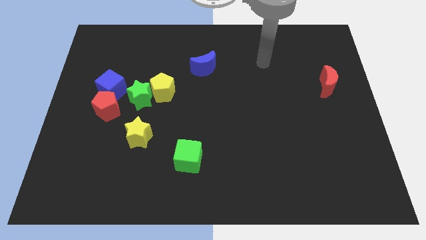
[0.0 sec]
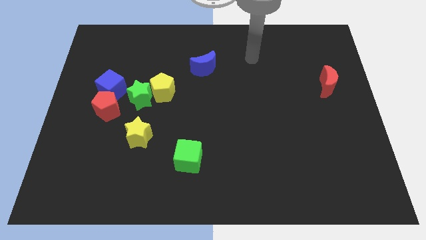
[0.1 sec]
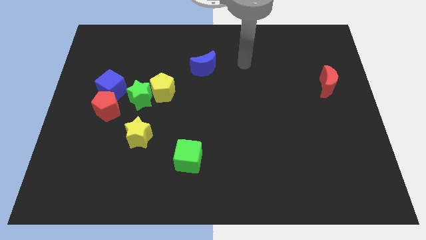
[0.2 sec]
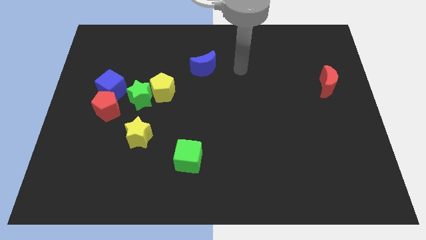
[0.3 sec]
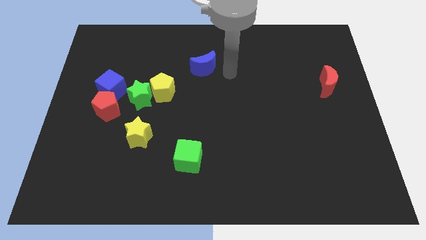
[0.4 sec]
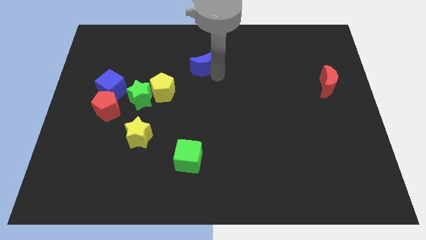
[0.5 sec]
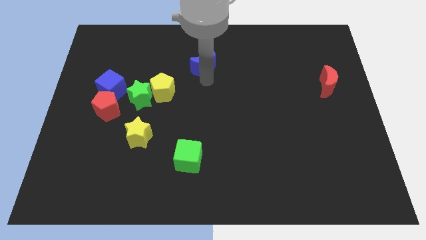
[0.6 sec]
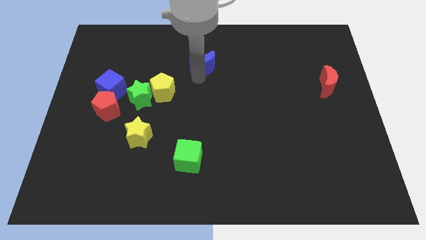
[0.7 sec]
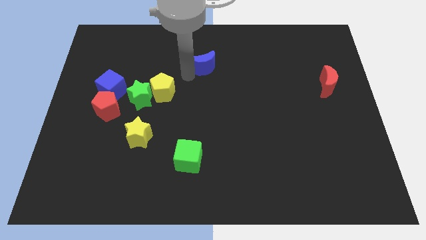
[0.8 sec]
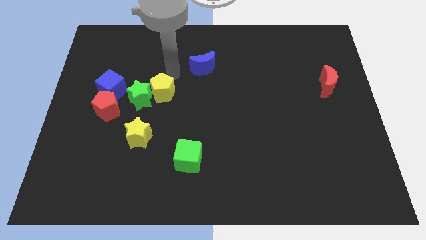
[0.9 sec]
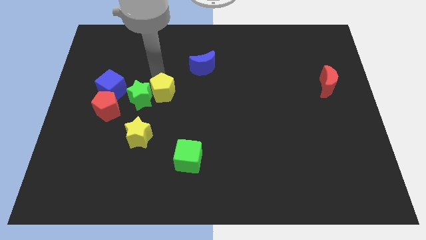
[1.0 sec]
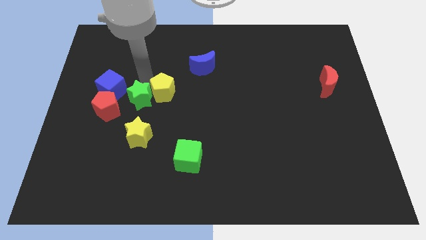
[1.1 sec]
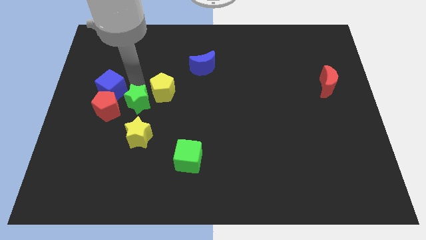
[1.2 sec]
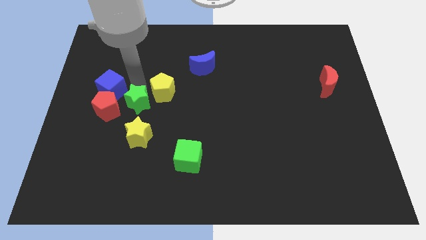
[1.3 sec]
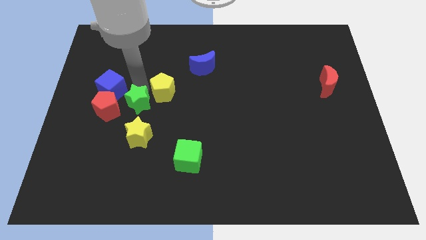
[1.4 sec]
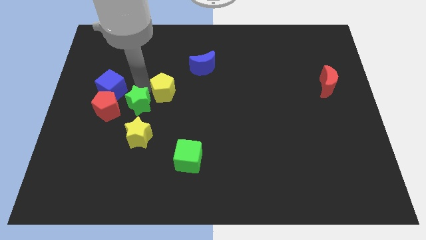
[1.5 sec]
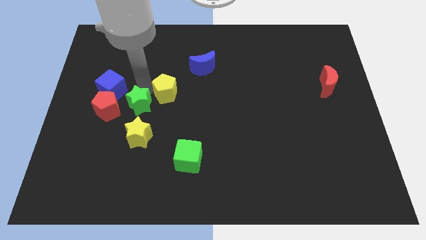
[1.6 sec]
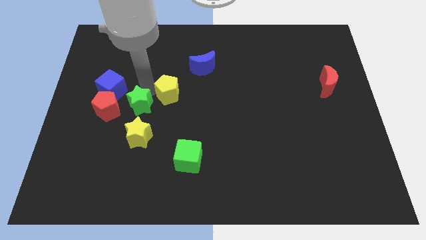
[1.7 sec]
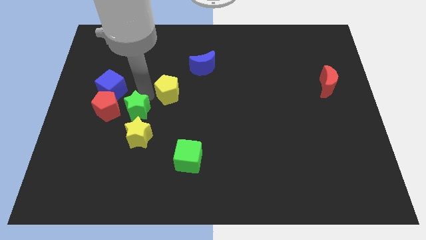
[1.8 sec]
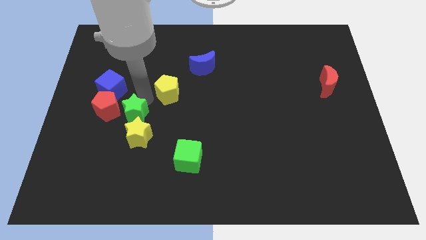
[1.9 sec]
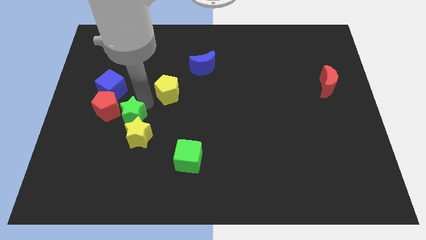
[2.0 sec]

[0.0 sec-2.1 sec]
separate the yellow pentagon from the green star

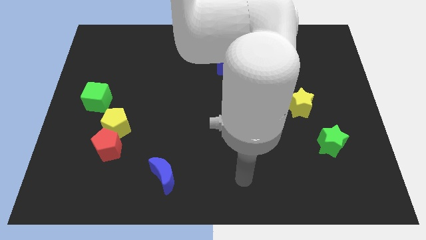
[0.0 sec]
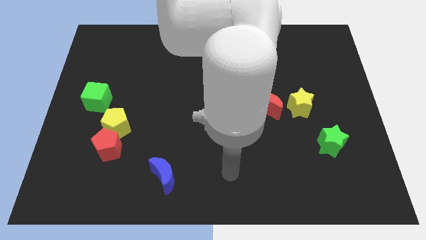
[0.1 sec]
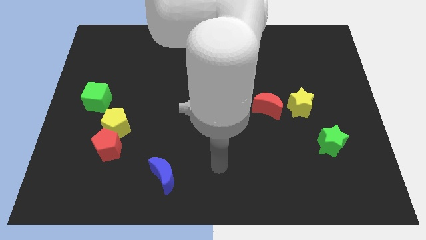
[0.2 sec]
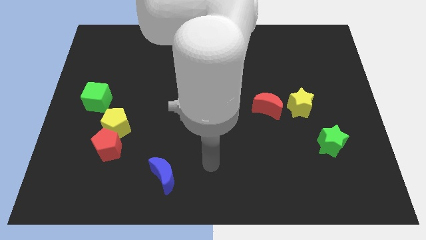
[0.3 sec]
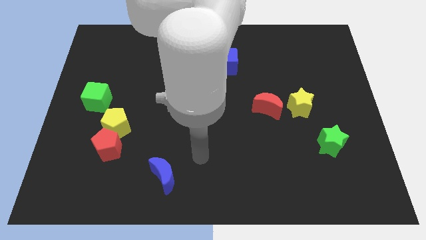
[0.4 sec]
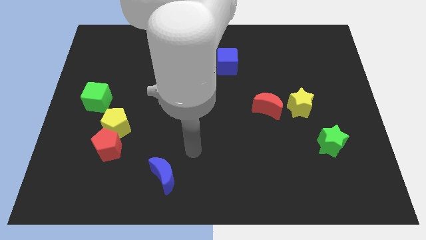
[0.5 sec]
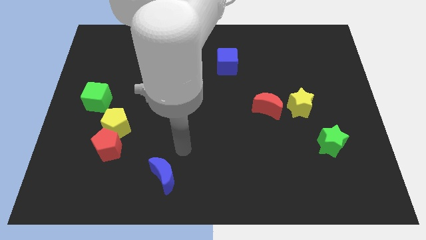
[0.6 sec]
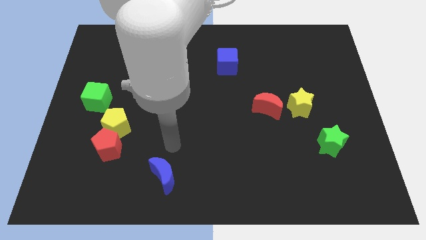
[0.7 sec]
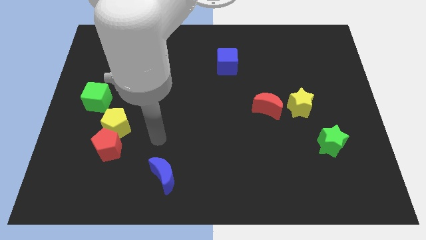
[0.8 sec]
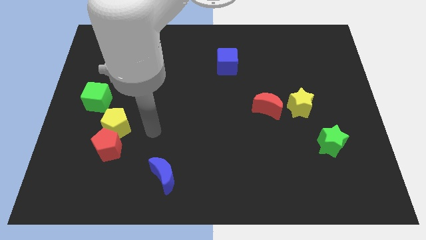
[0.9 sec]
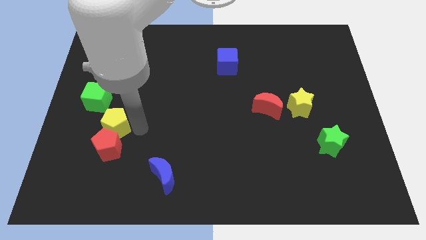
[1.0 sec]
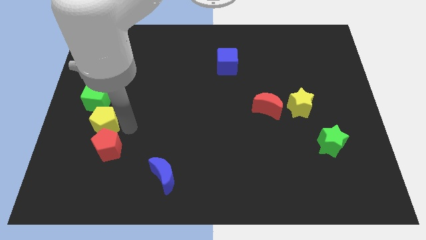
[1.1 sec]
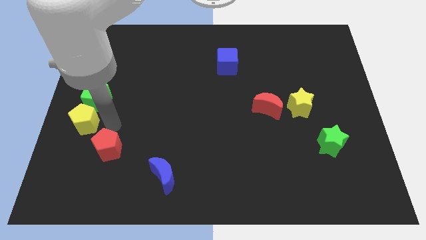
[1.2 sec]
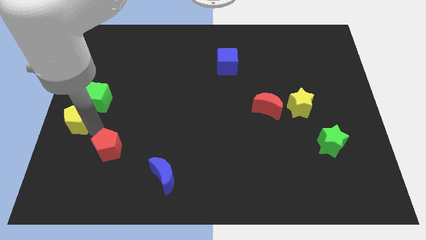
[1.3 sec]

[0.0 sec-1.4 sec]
move the red pentagon away from the yellow pentagon

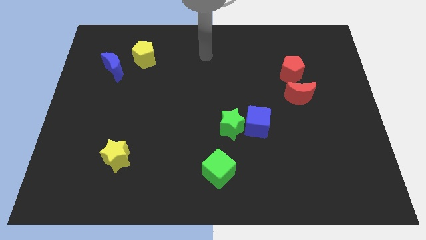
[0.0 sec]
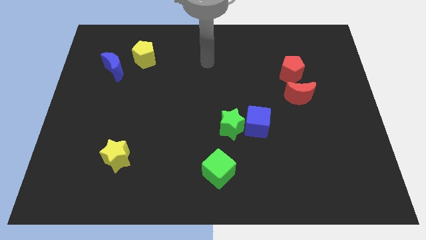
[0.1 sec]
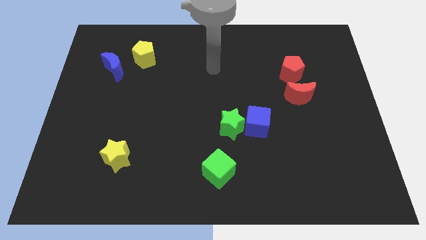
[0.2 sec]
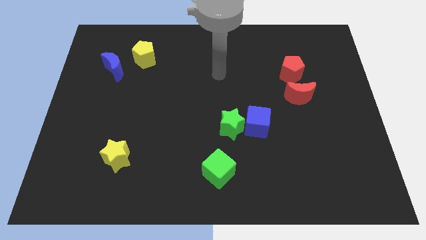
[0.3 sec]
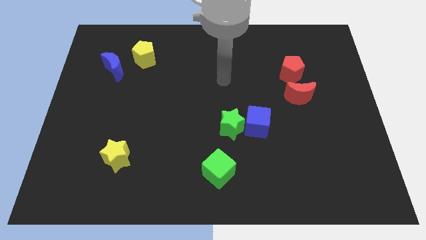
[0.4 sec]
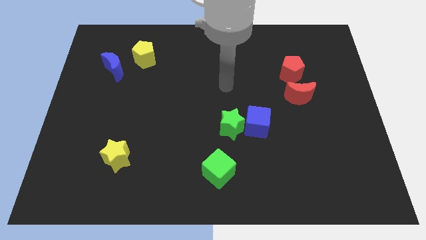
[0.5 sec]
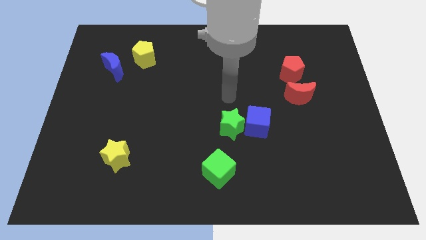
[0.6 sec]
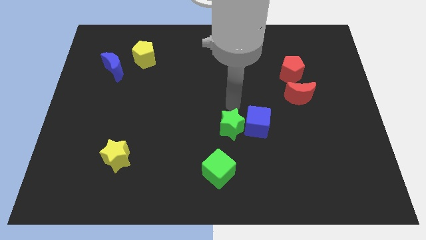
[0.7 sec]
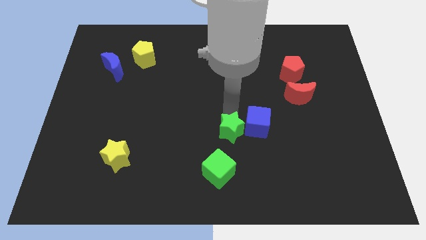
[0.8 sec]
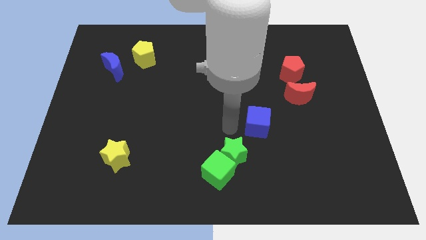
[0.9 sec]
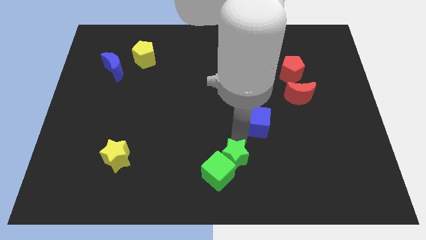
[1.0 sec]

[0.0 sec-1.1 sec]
separate the blue cube from the green star

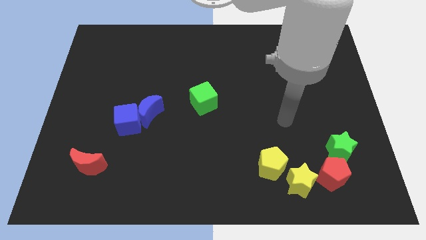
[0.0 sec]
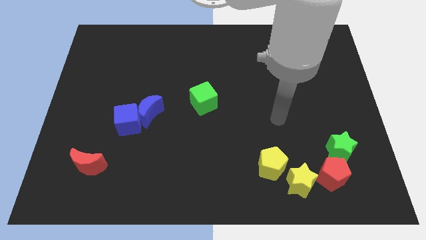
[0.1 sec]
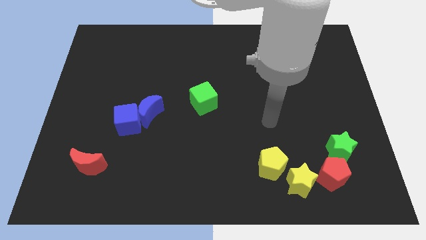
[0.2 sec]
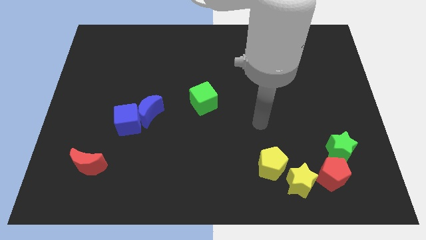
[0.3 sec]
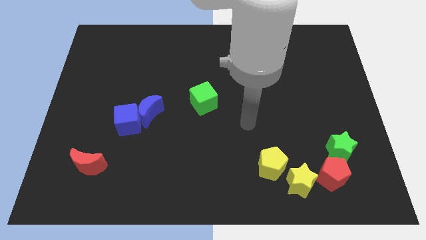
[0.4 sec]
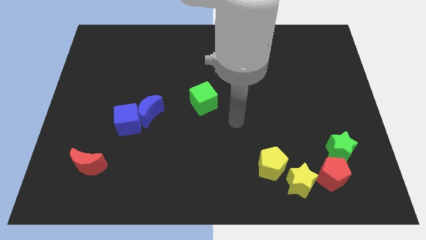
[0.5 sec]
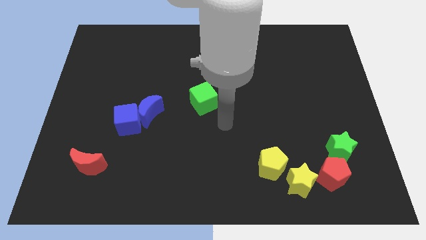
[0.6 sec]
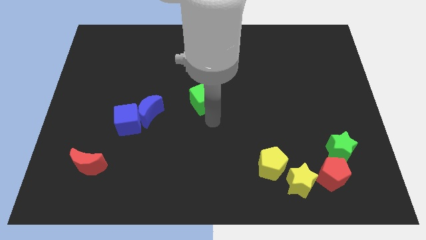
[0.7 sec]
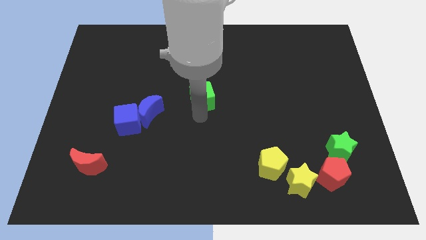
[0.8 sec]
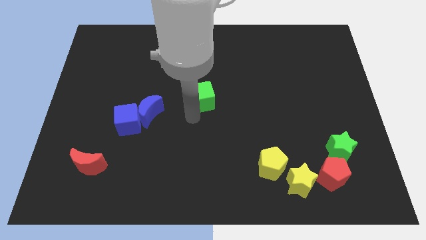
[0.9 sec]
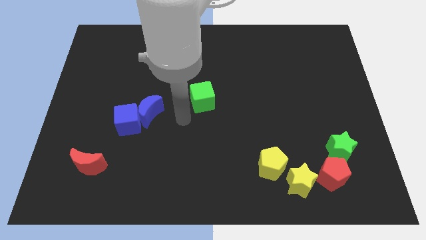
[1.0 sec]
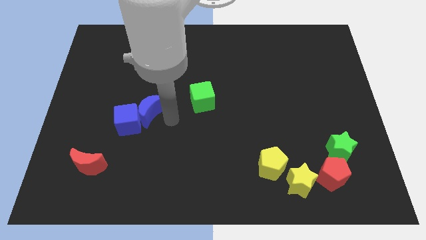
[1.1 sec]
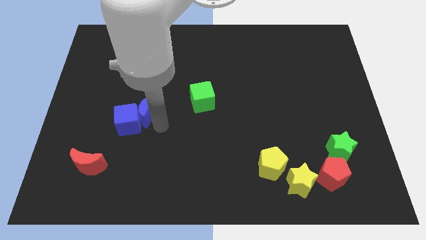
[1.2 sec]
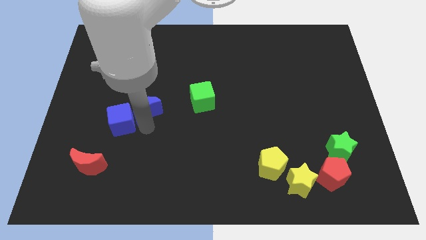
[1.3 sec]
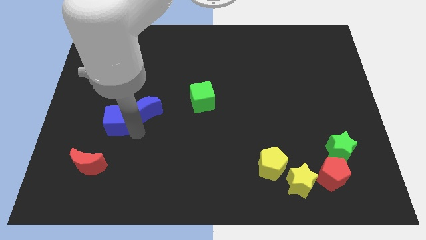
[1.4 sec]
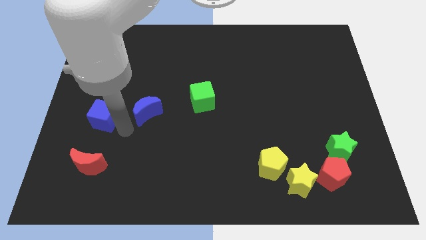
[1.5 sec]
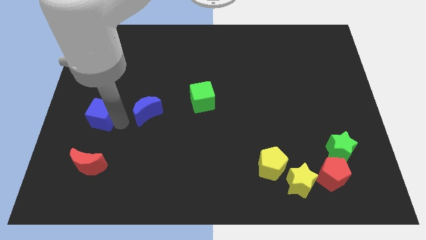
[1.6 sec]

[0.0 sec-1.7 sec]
move the blue moon away from the blue cube

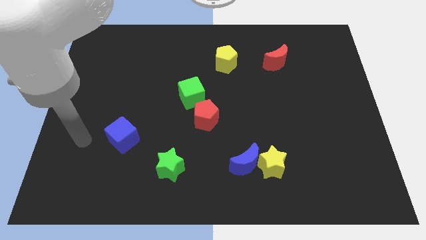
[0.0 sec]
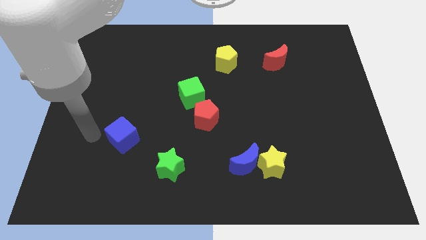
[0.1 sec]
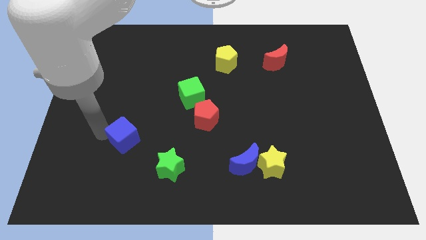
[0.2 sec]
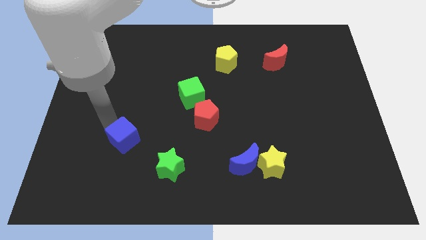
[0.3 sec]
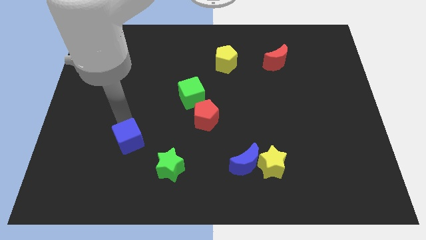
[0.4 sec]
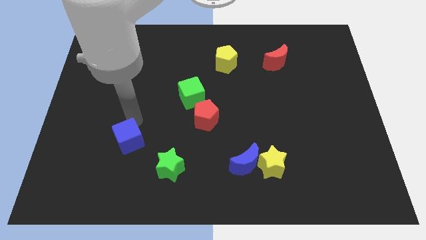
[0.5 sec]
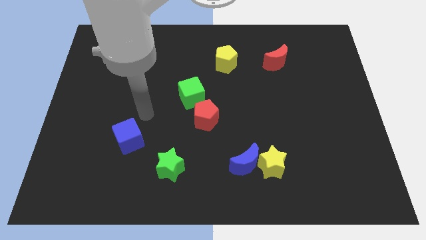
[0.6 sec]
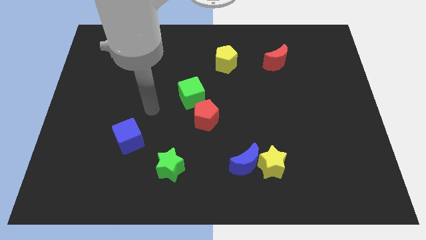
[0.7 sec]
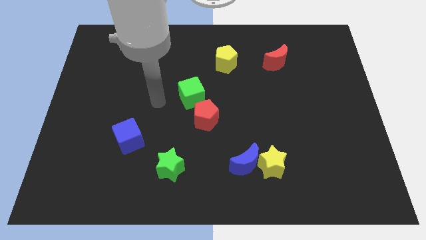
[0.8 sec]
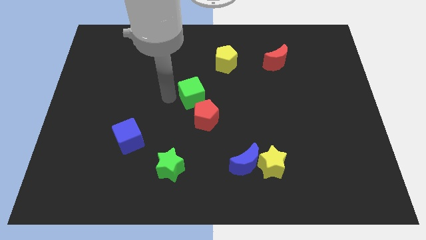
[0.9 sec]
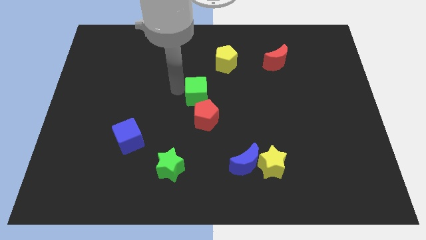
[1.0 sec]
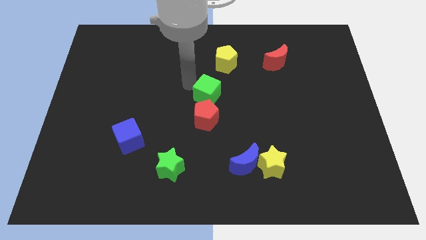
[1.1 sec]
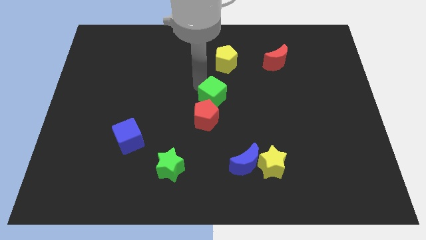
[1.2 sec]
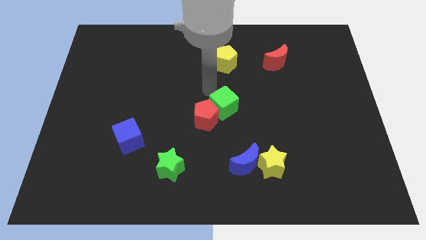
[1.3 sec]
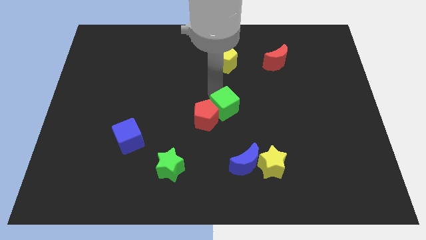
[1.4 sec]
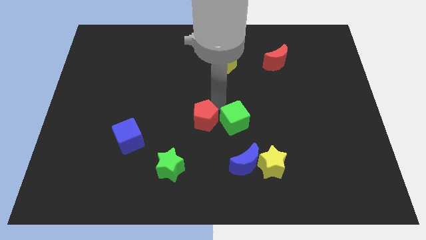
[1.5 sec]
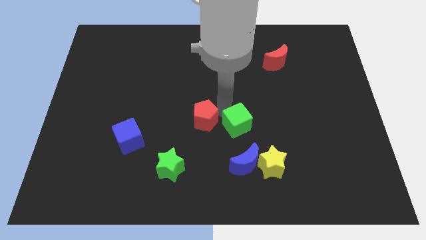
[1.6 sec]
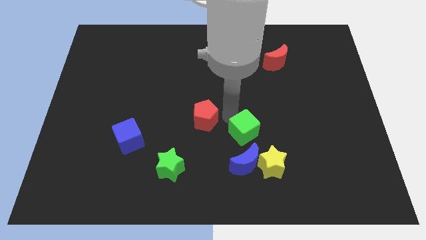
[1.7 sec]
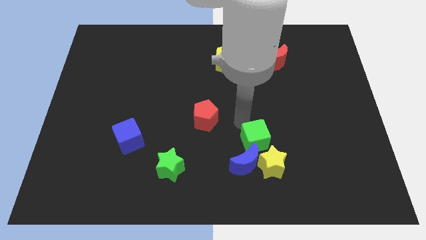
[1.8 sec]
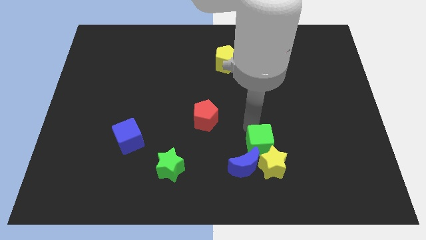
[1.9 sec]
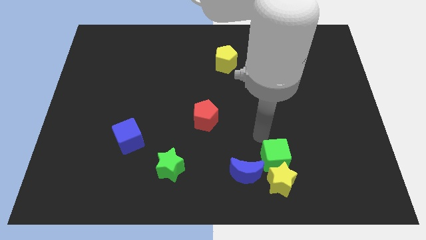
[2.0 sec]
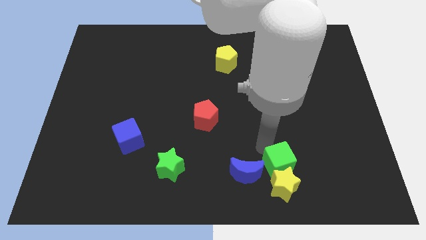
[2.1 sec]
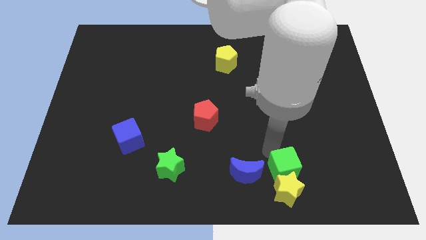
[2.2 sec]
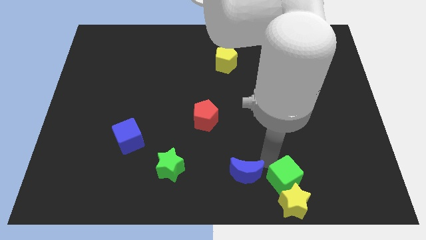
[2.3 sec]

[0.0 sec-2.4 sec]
move the blue moon away from the yellow star

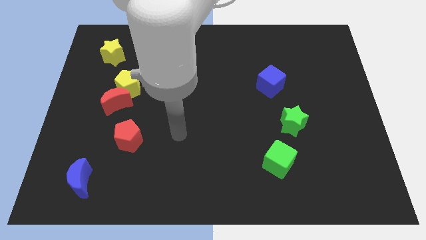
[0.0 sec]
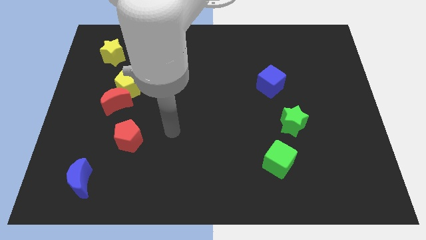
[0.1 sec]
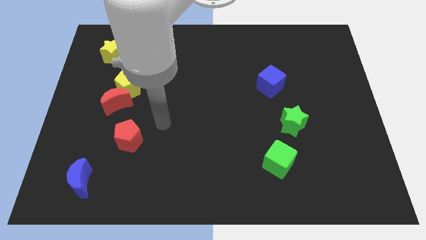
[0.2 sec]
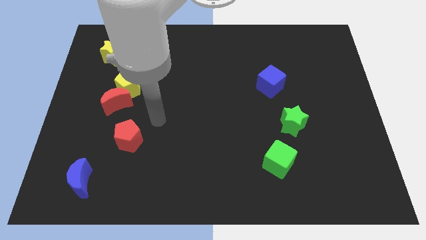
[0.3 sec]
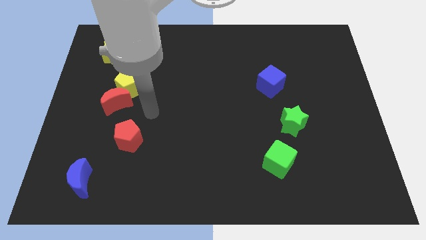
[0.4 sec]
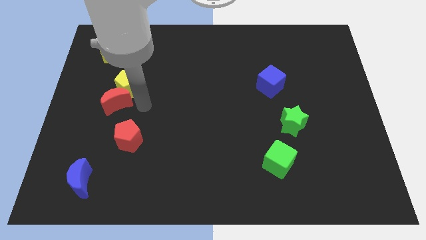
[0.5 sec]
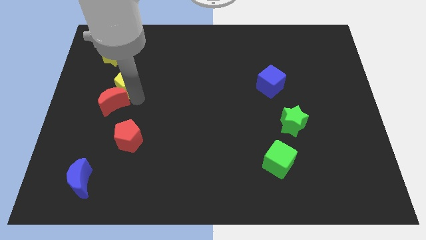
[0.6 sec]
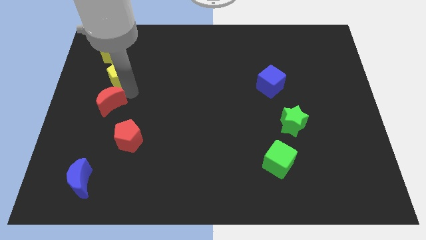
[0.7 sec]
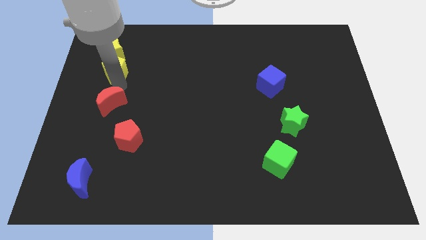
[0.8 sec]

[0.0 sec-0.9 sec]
pull the red moon apart from the yellow pentagon
